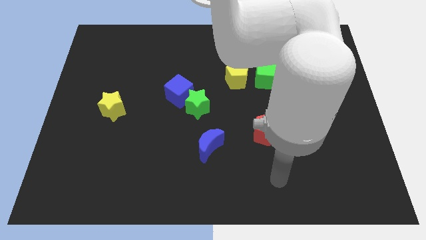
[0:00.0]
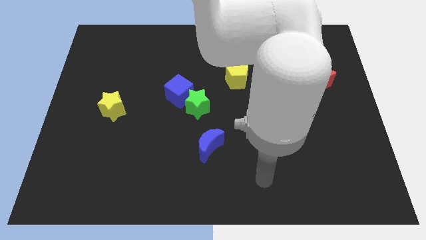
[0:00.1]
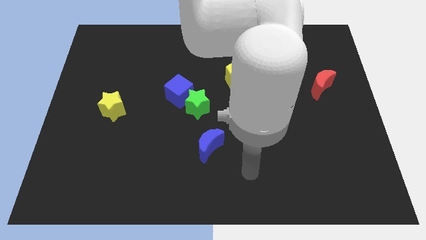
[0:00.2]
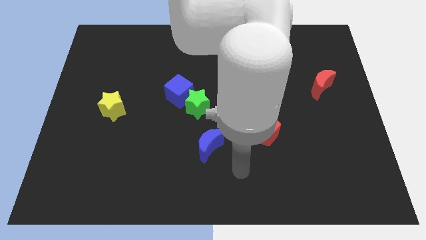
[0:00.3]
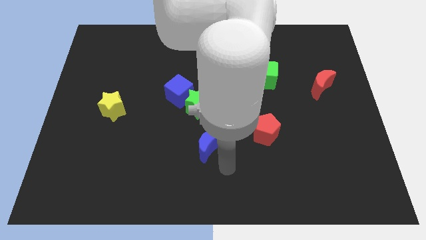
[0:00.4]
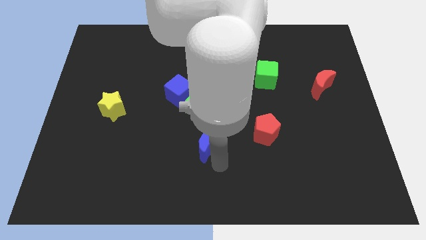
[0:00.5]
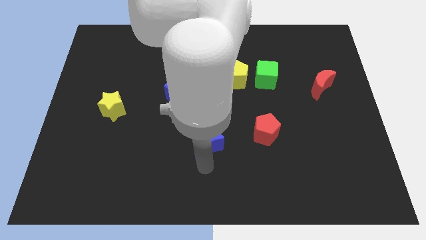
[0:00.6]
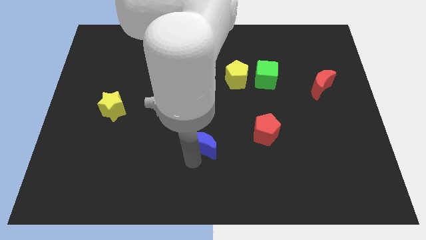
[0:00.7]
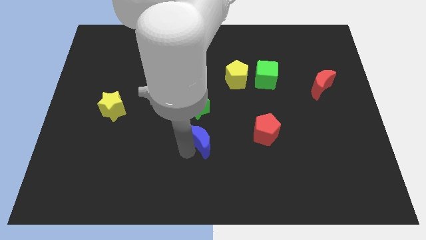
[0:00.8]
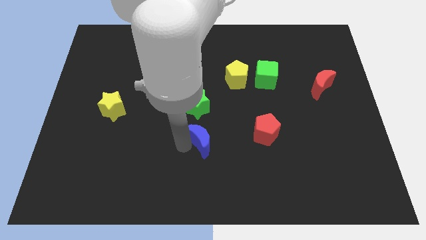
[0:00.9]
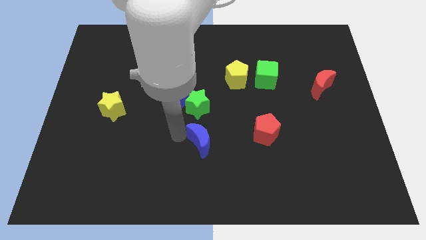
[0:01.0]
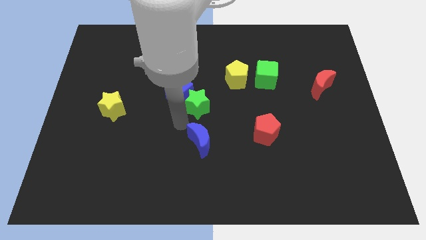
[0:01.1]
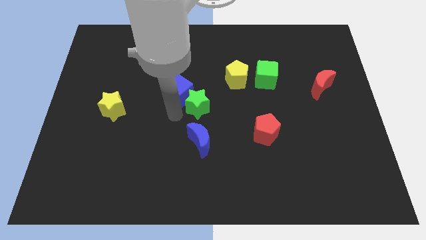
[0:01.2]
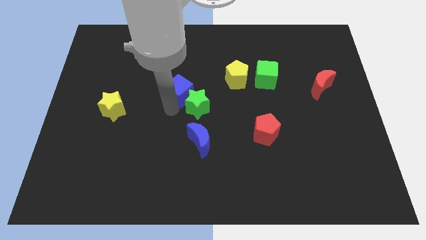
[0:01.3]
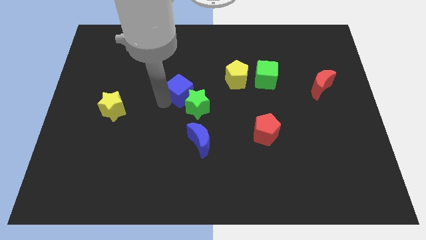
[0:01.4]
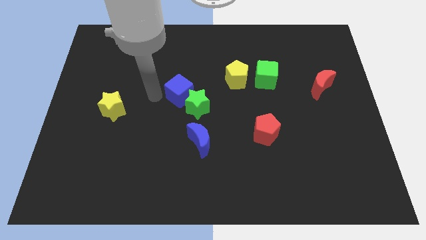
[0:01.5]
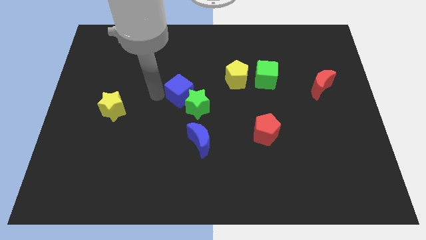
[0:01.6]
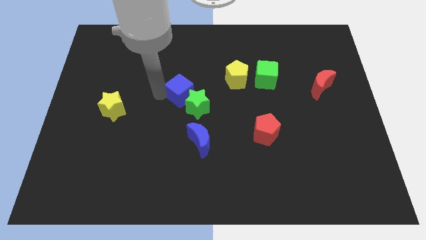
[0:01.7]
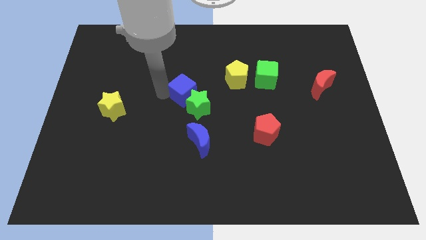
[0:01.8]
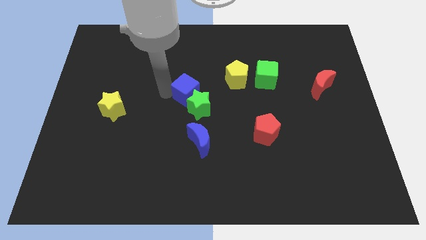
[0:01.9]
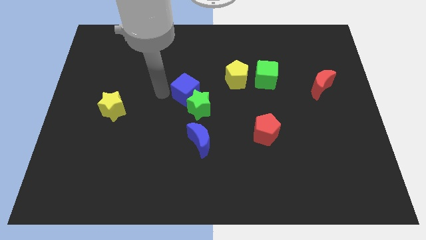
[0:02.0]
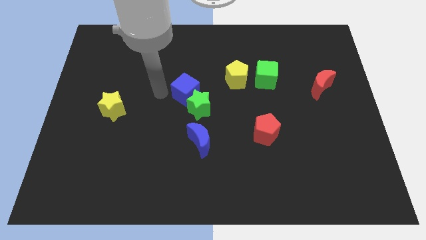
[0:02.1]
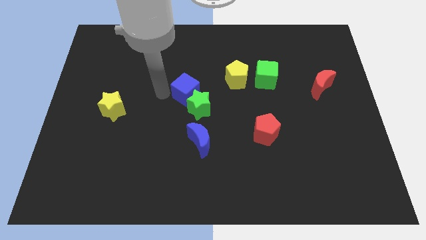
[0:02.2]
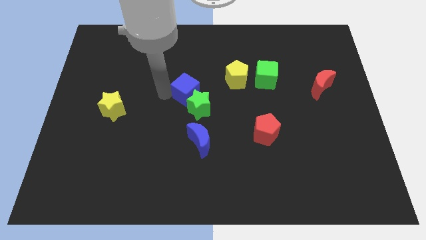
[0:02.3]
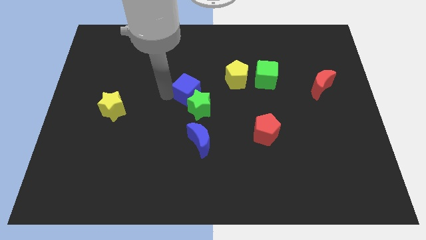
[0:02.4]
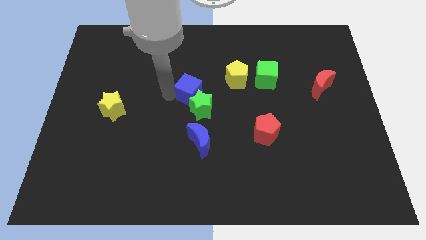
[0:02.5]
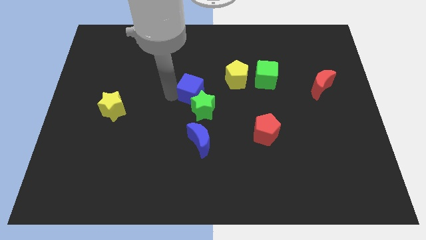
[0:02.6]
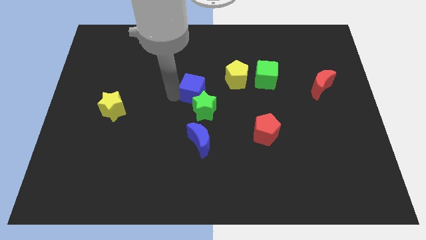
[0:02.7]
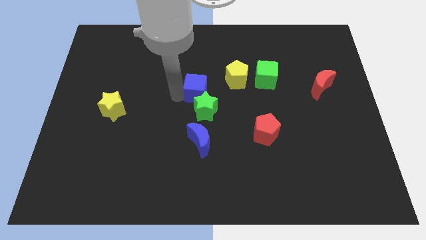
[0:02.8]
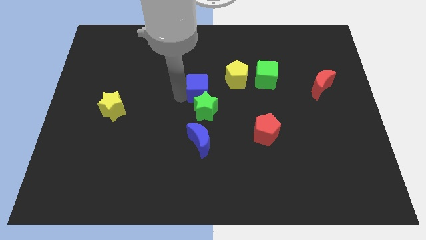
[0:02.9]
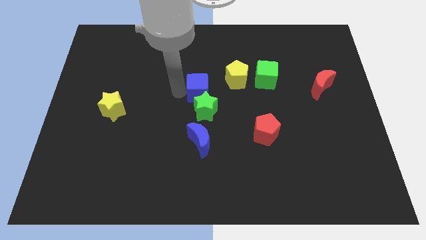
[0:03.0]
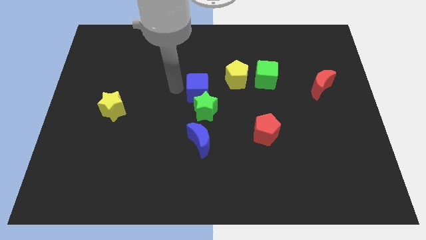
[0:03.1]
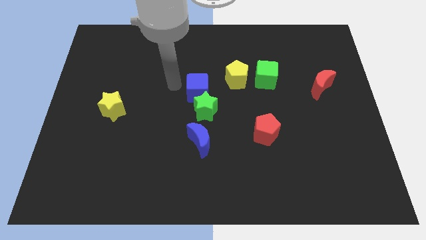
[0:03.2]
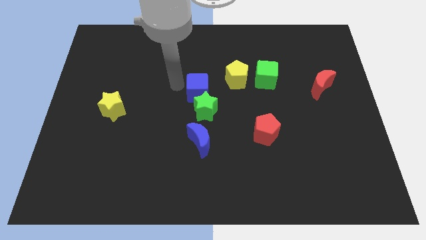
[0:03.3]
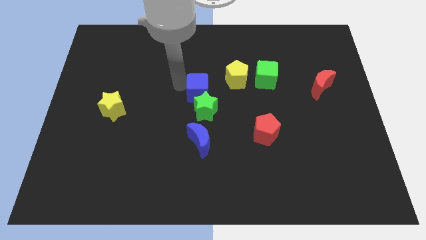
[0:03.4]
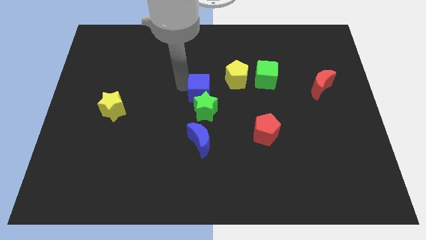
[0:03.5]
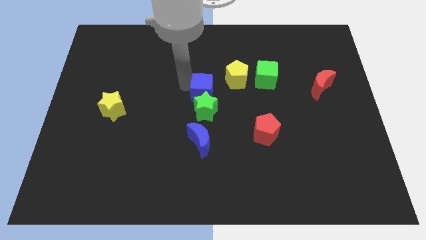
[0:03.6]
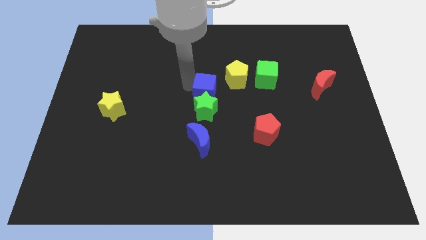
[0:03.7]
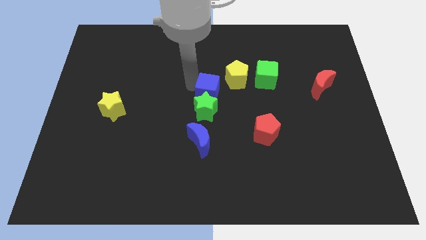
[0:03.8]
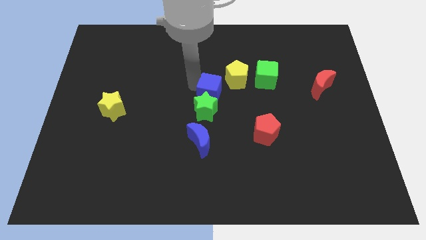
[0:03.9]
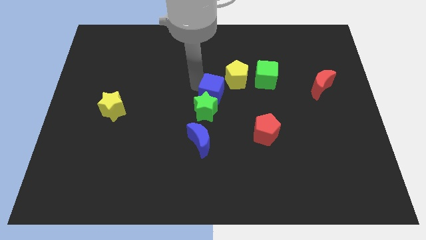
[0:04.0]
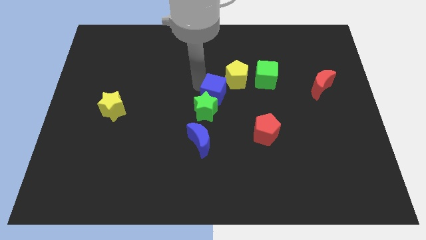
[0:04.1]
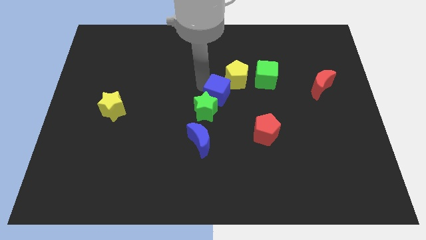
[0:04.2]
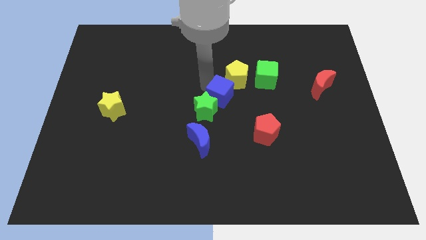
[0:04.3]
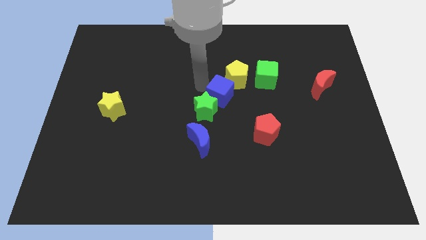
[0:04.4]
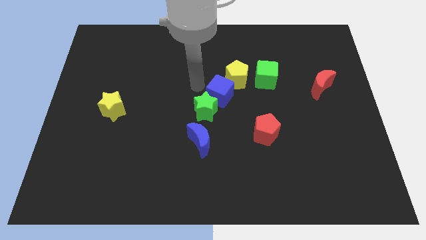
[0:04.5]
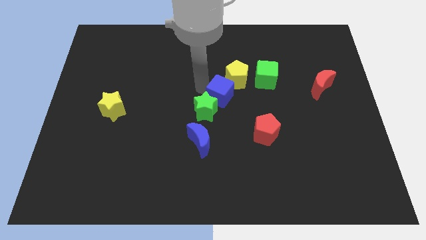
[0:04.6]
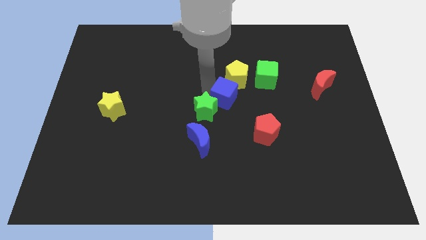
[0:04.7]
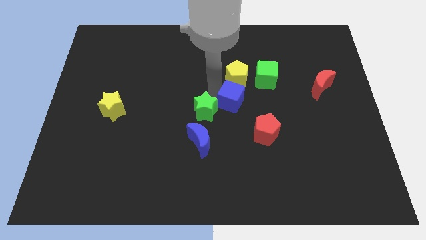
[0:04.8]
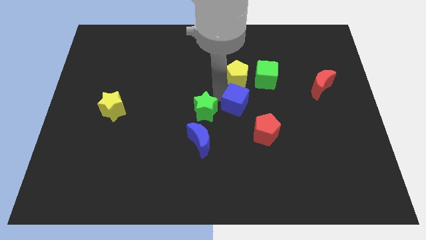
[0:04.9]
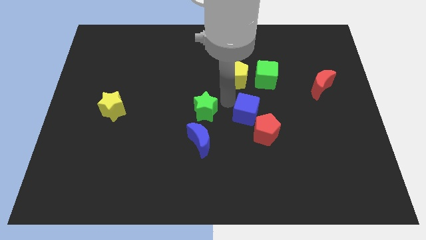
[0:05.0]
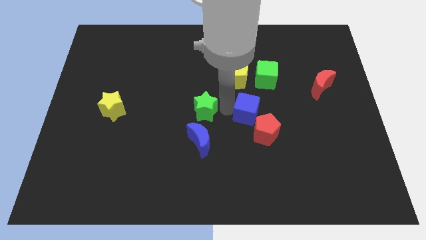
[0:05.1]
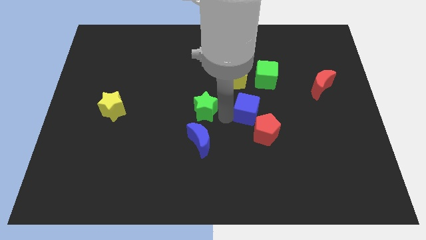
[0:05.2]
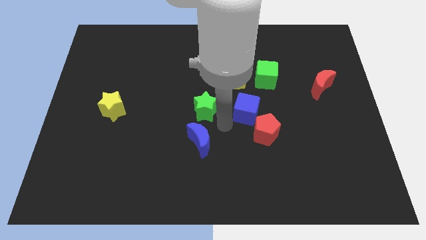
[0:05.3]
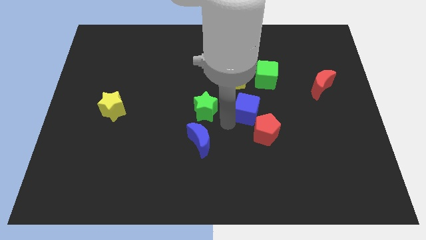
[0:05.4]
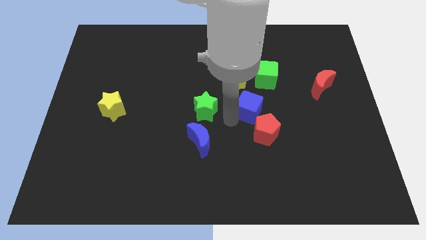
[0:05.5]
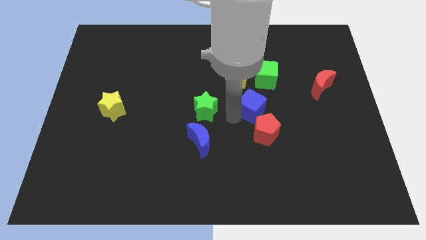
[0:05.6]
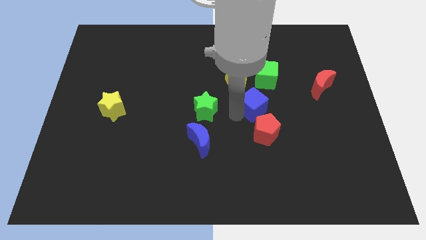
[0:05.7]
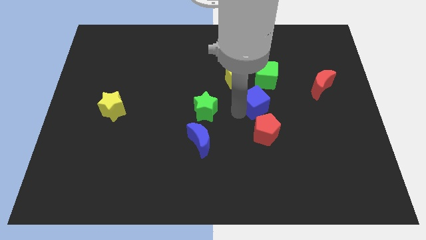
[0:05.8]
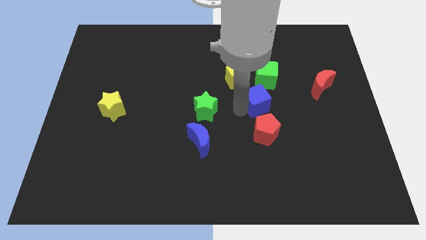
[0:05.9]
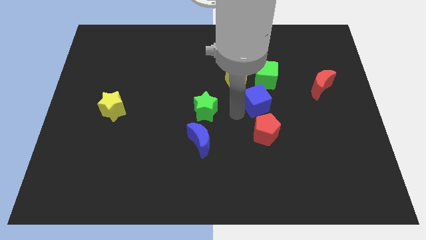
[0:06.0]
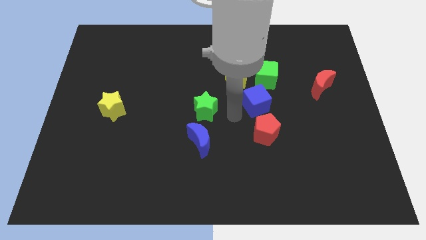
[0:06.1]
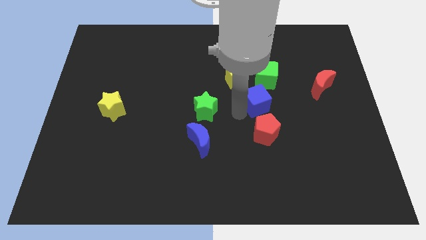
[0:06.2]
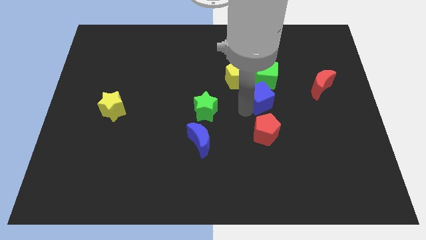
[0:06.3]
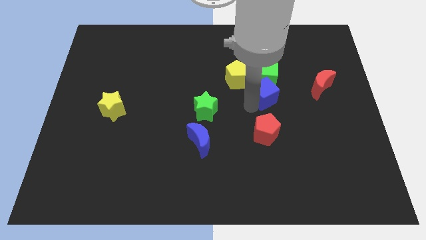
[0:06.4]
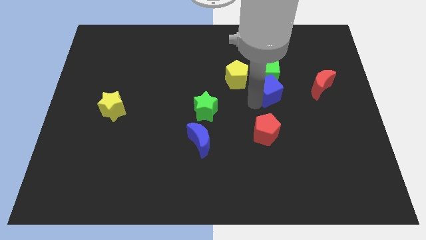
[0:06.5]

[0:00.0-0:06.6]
push the blue cube to the right side of the yellow pentagon
